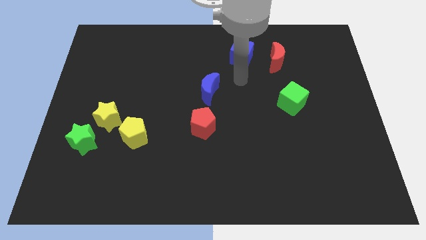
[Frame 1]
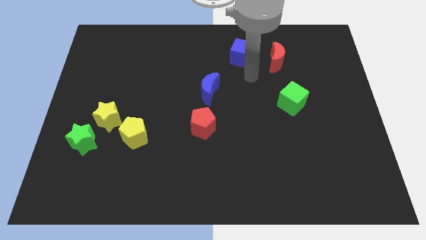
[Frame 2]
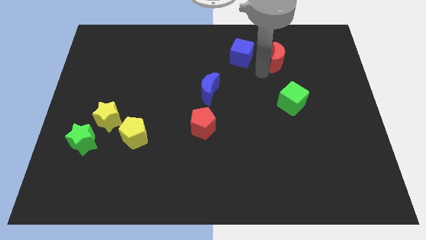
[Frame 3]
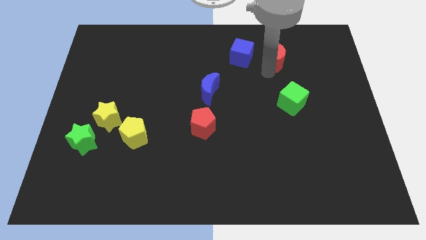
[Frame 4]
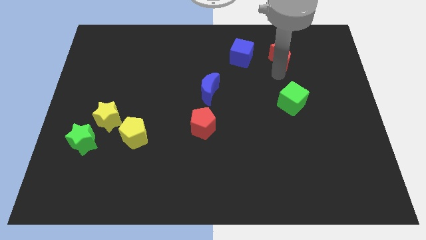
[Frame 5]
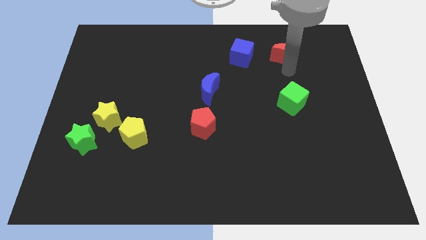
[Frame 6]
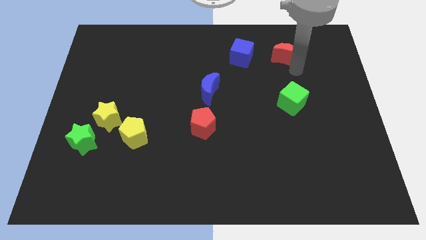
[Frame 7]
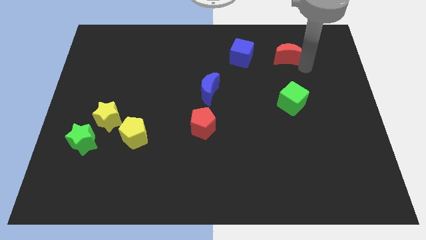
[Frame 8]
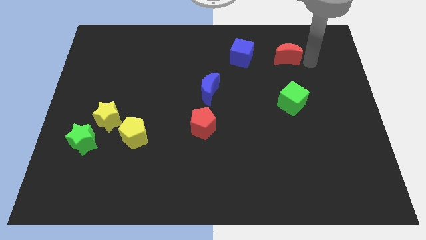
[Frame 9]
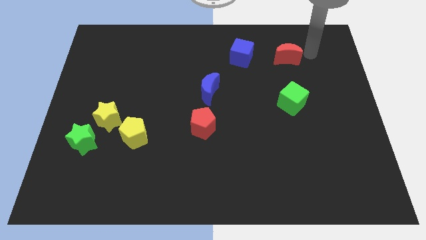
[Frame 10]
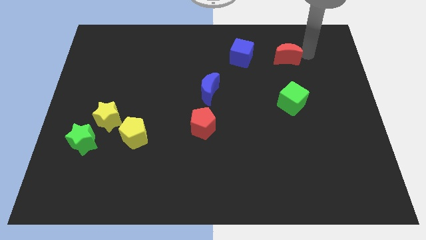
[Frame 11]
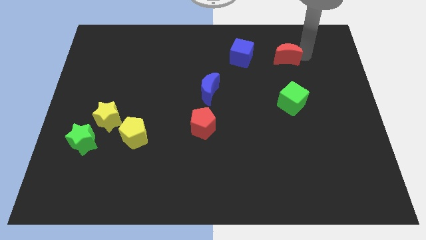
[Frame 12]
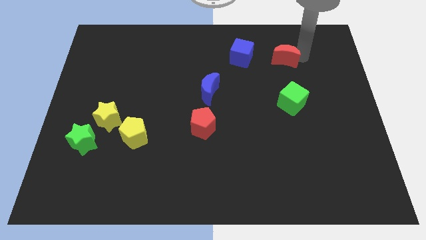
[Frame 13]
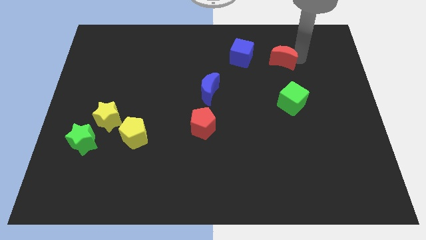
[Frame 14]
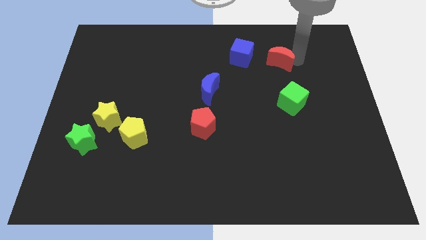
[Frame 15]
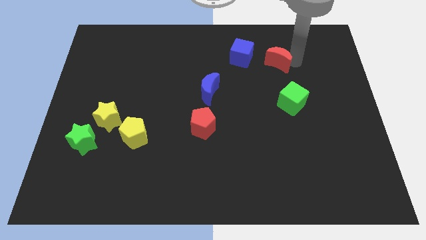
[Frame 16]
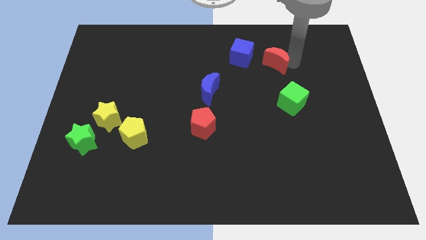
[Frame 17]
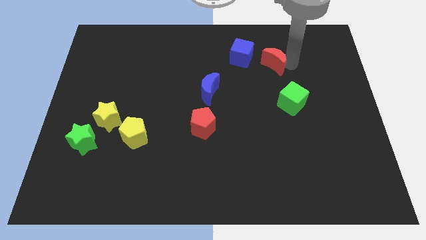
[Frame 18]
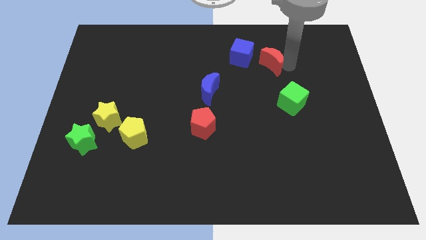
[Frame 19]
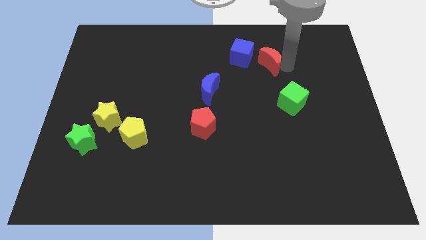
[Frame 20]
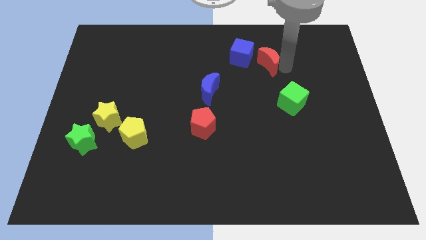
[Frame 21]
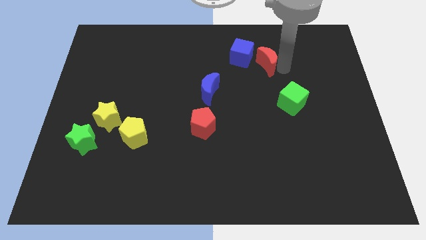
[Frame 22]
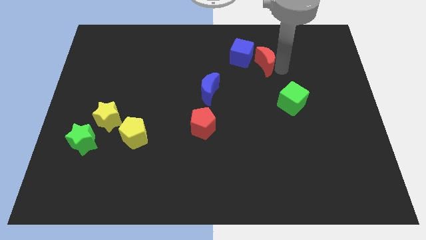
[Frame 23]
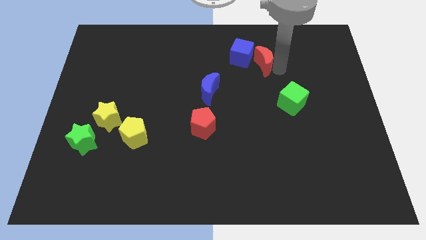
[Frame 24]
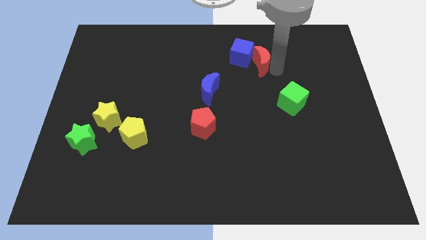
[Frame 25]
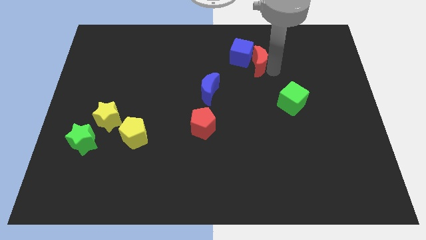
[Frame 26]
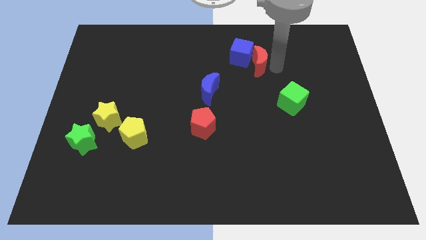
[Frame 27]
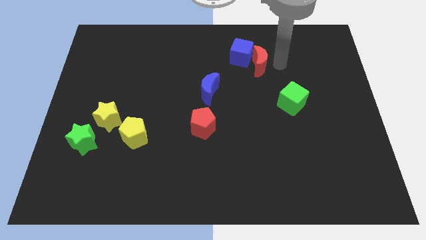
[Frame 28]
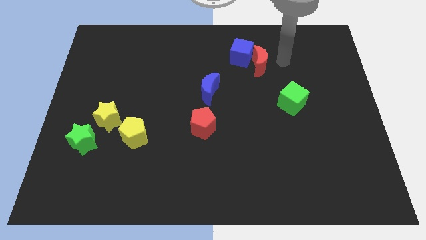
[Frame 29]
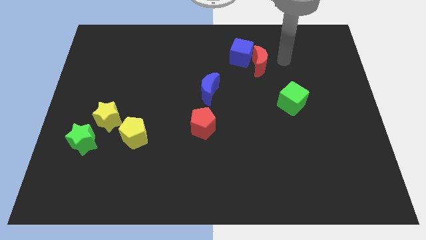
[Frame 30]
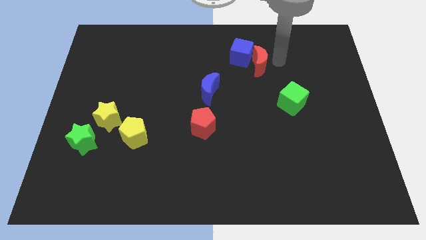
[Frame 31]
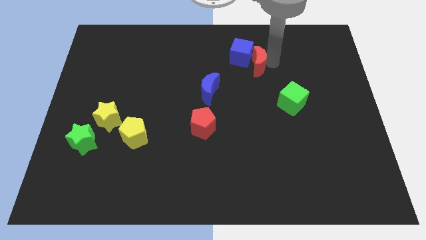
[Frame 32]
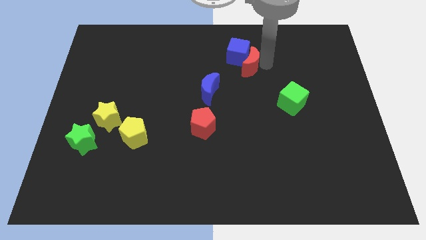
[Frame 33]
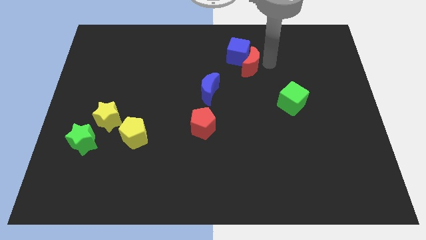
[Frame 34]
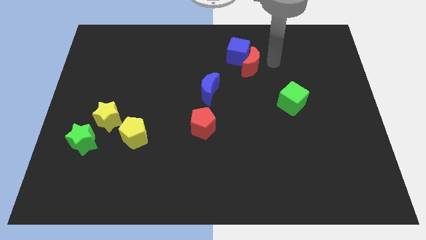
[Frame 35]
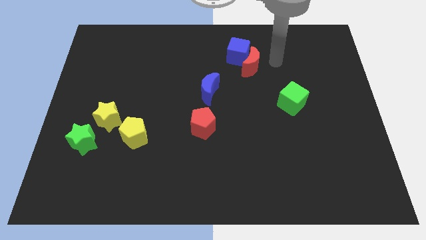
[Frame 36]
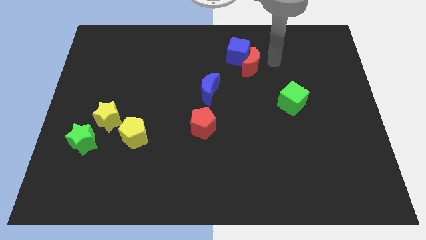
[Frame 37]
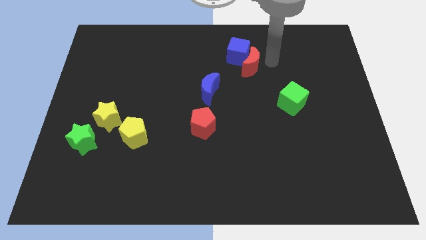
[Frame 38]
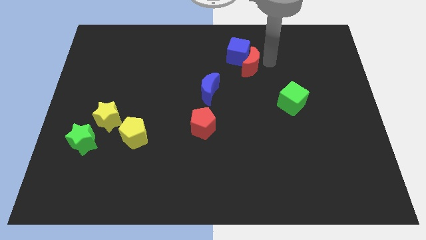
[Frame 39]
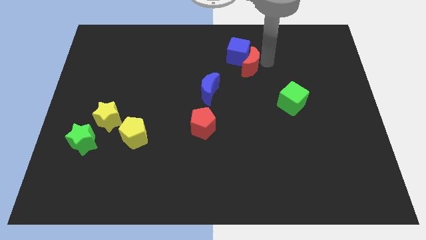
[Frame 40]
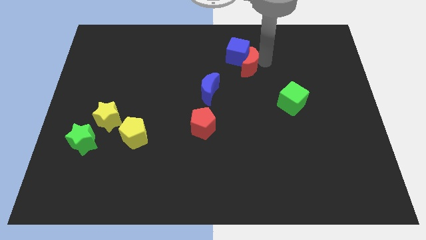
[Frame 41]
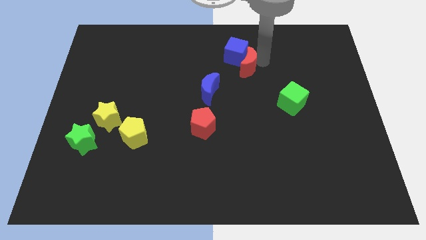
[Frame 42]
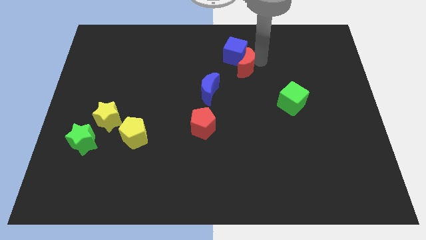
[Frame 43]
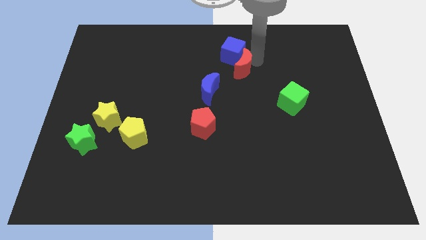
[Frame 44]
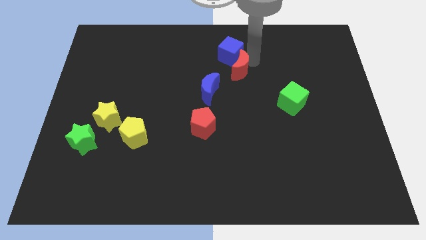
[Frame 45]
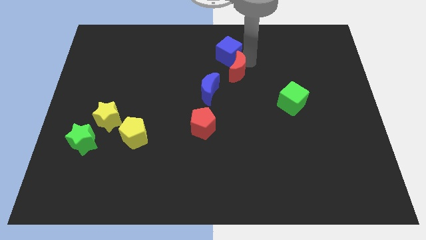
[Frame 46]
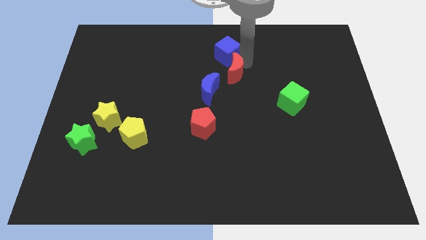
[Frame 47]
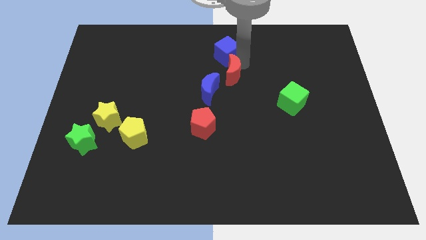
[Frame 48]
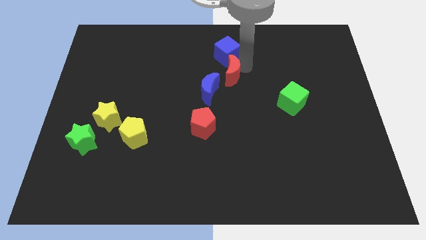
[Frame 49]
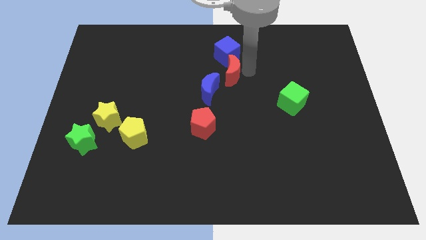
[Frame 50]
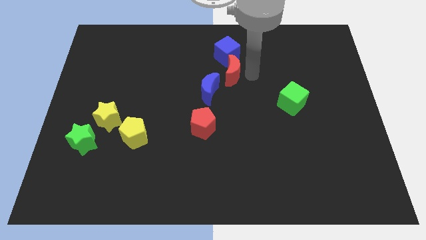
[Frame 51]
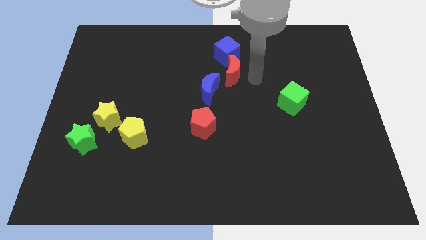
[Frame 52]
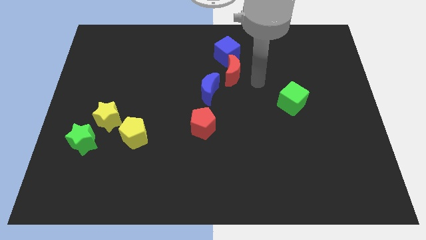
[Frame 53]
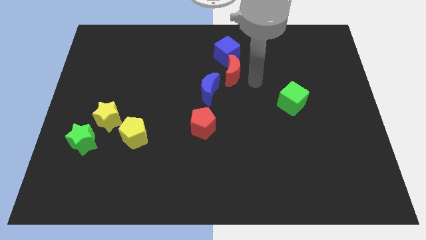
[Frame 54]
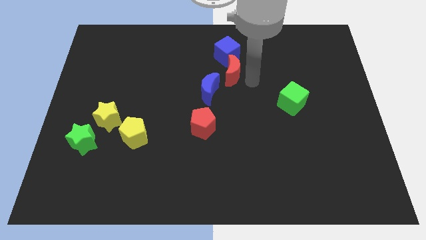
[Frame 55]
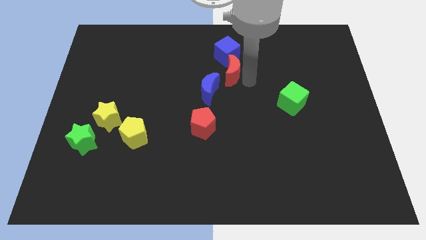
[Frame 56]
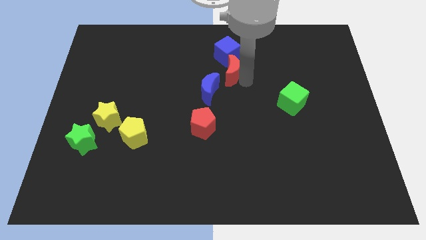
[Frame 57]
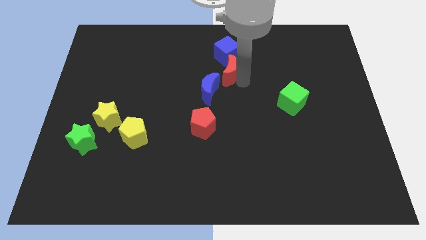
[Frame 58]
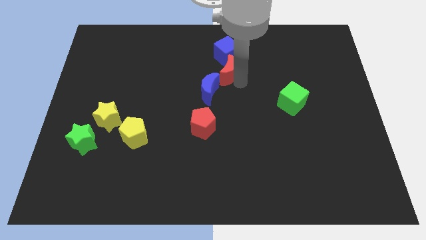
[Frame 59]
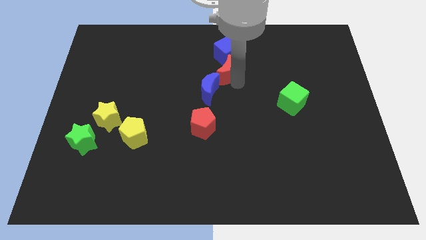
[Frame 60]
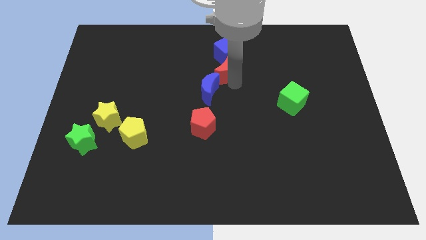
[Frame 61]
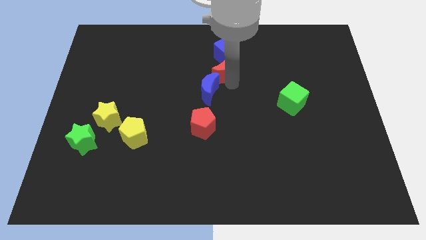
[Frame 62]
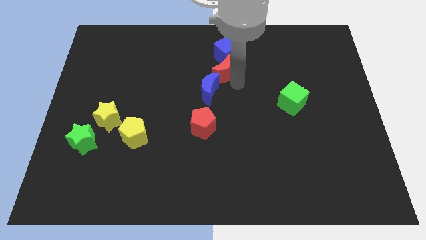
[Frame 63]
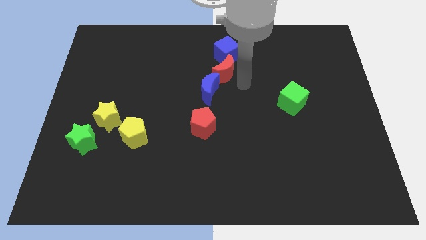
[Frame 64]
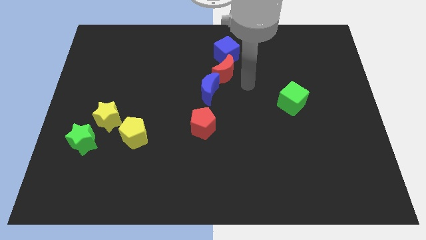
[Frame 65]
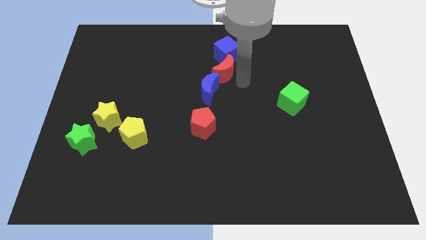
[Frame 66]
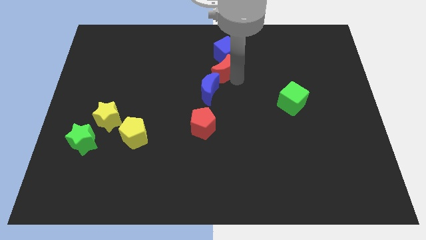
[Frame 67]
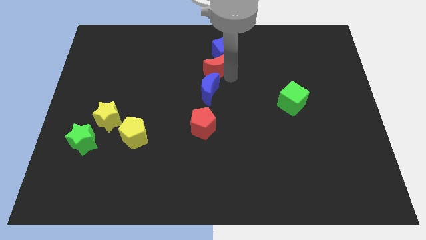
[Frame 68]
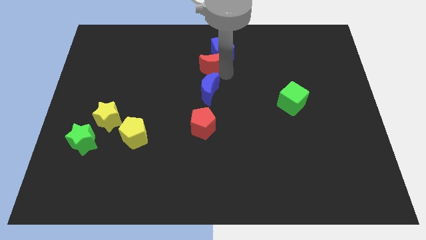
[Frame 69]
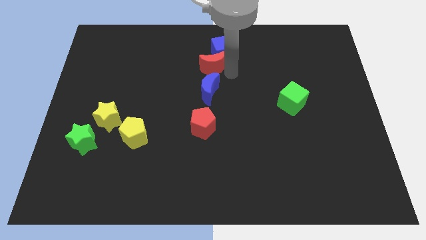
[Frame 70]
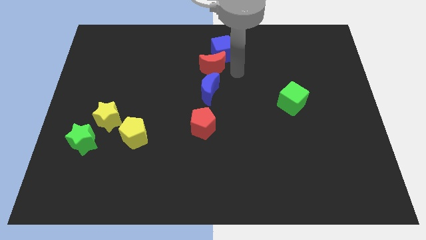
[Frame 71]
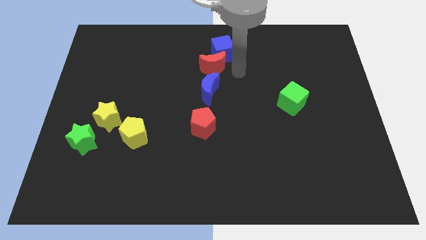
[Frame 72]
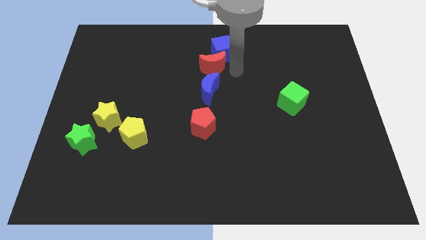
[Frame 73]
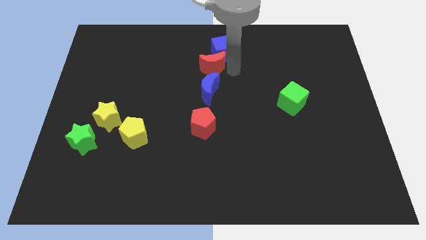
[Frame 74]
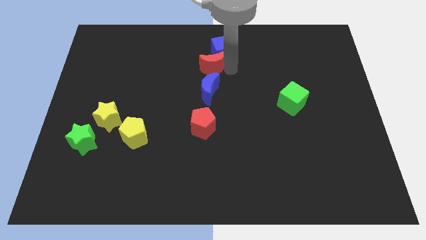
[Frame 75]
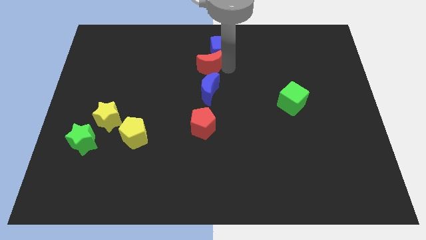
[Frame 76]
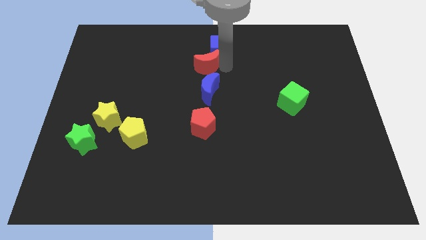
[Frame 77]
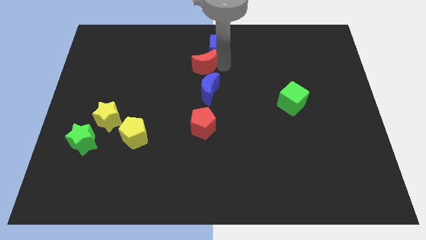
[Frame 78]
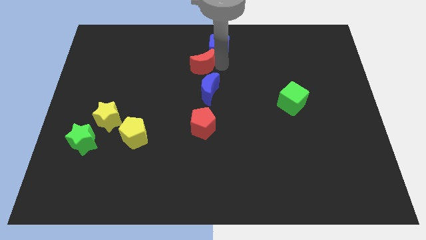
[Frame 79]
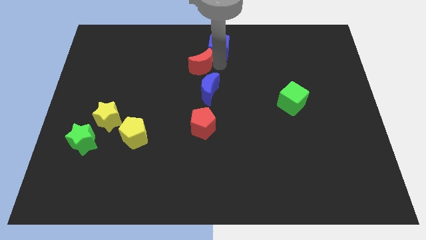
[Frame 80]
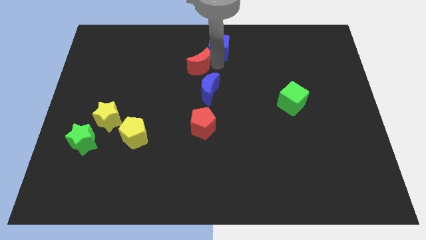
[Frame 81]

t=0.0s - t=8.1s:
push the red moon left
